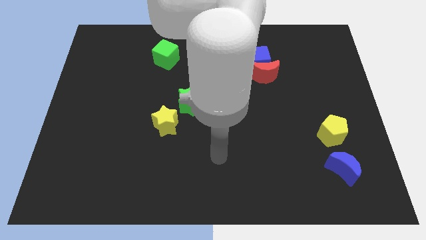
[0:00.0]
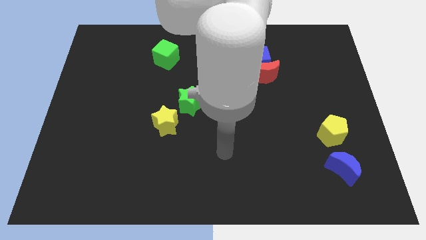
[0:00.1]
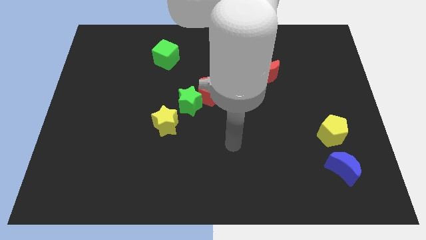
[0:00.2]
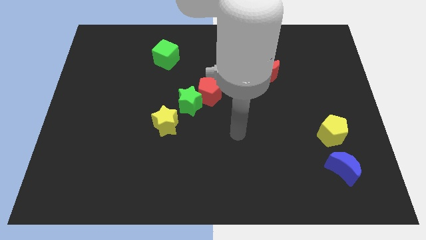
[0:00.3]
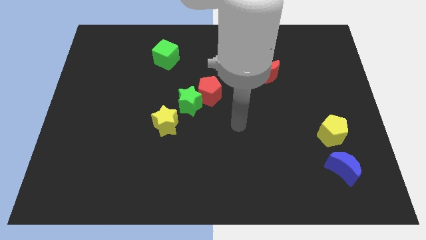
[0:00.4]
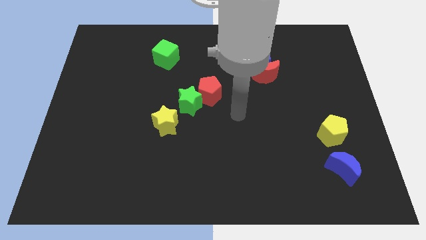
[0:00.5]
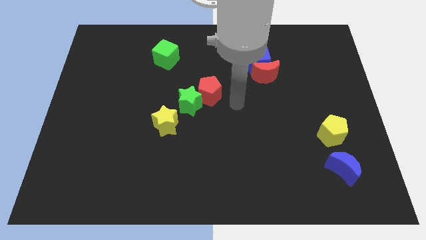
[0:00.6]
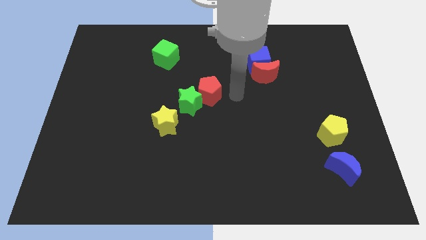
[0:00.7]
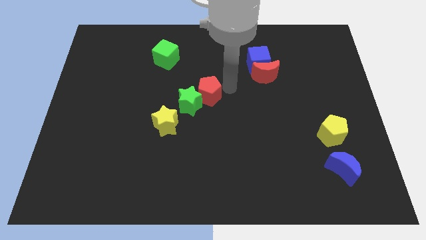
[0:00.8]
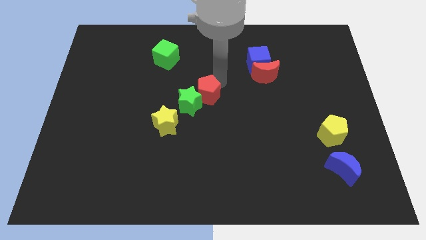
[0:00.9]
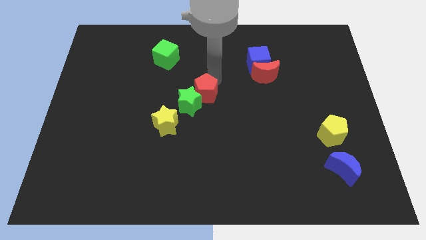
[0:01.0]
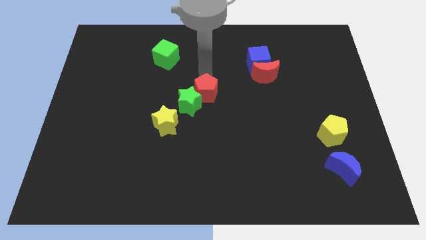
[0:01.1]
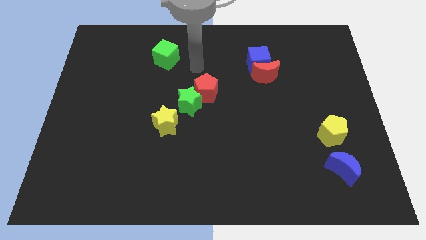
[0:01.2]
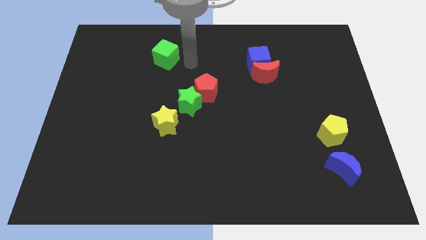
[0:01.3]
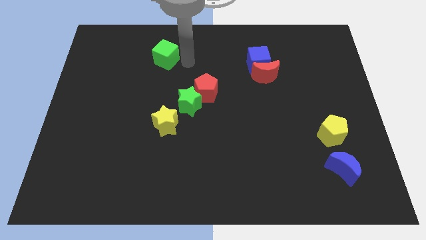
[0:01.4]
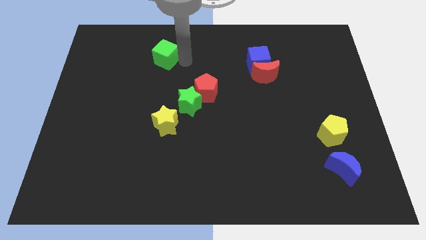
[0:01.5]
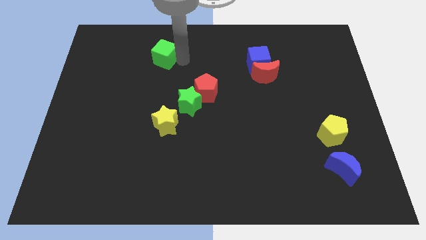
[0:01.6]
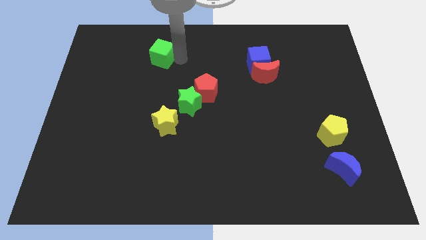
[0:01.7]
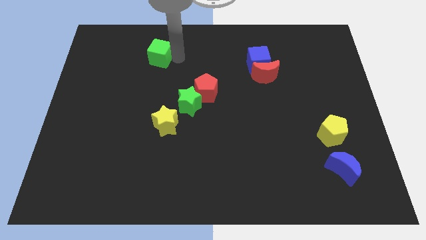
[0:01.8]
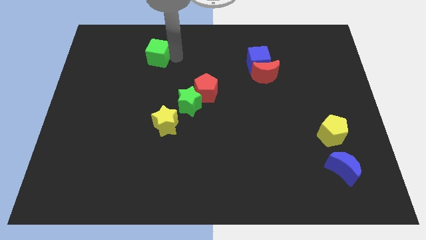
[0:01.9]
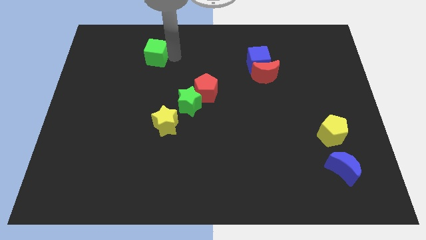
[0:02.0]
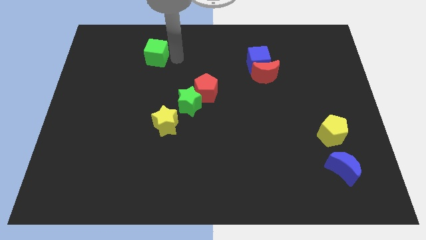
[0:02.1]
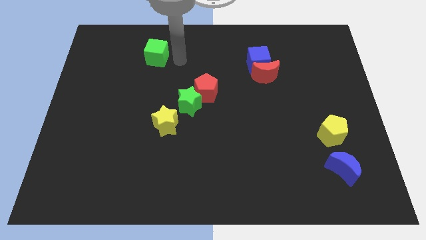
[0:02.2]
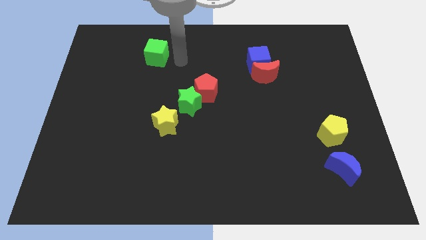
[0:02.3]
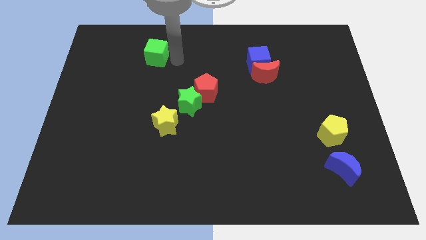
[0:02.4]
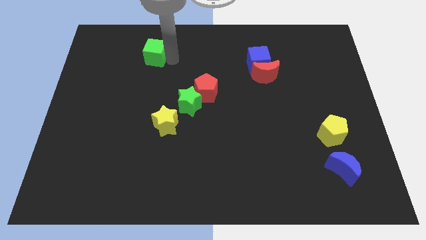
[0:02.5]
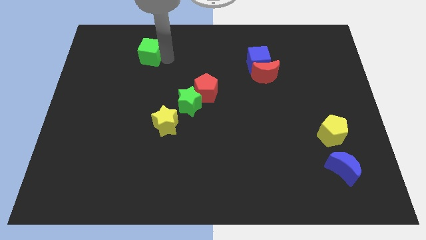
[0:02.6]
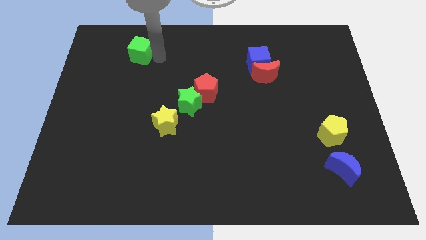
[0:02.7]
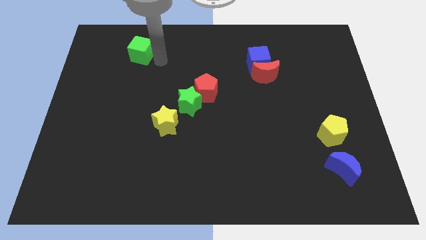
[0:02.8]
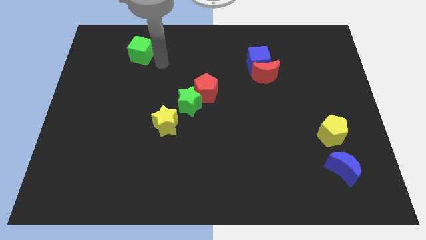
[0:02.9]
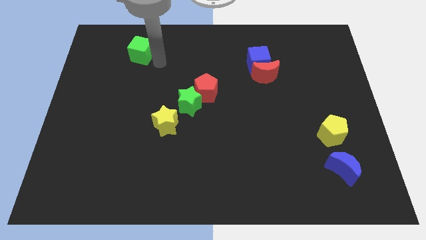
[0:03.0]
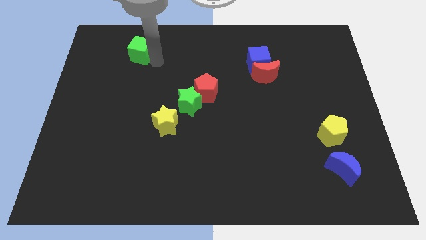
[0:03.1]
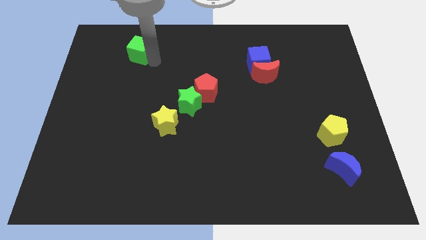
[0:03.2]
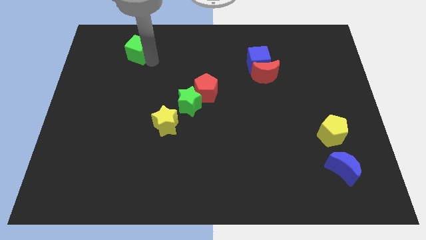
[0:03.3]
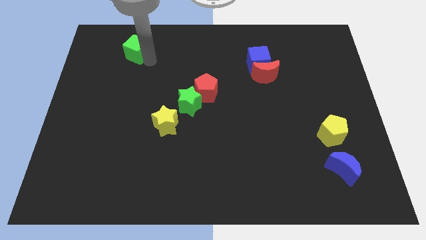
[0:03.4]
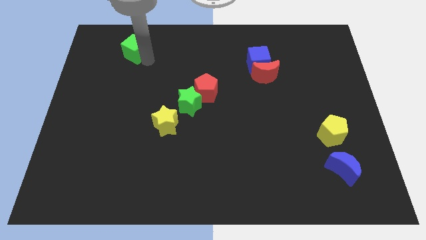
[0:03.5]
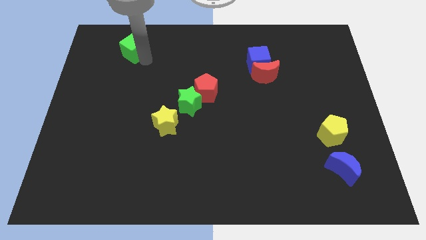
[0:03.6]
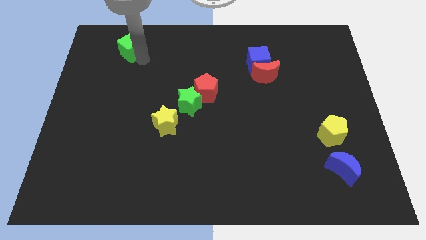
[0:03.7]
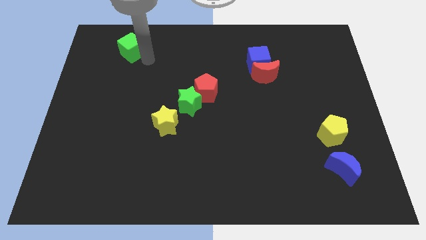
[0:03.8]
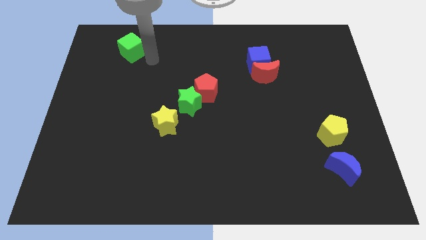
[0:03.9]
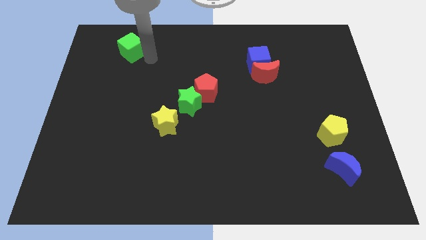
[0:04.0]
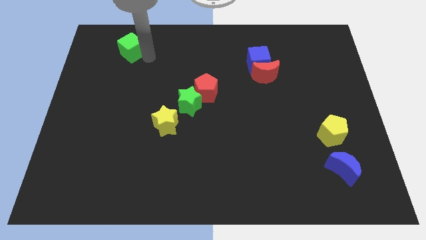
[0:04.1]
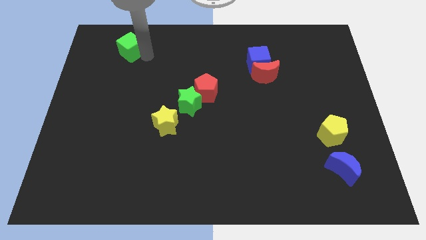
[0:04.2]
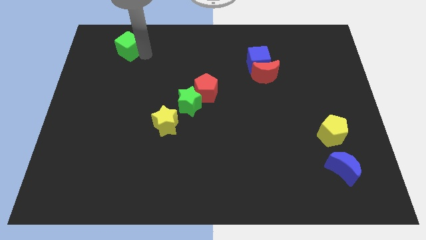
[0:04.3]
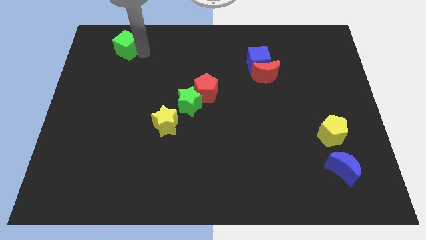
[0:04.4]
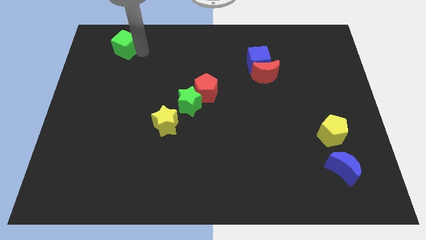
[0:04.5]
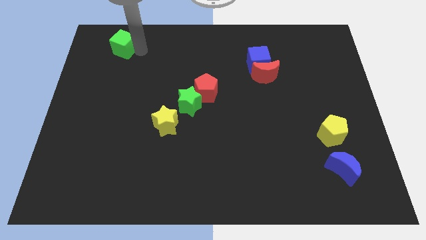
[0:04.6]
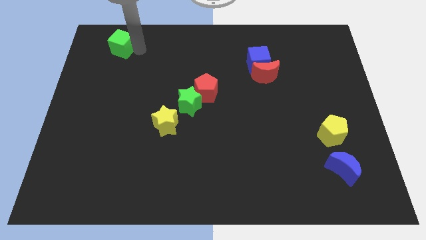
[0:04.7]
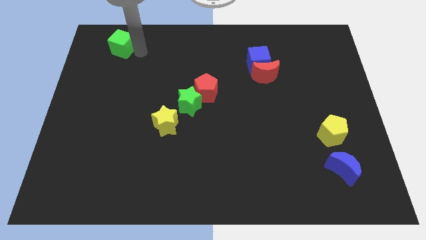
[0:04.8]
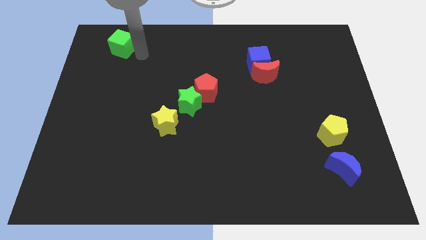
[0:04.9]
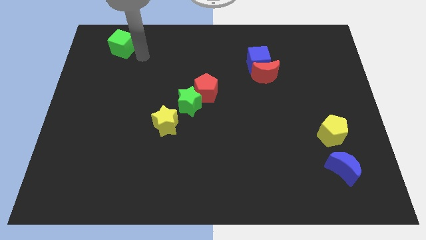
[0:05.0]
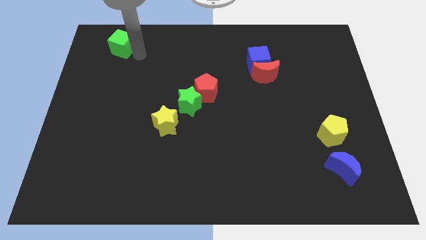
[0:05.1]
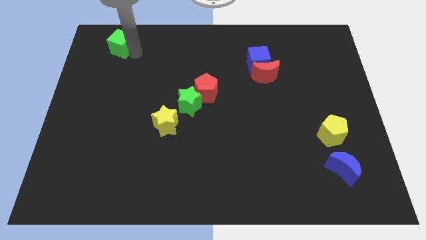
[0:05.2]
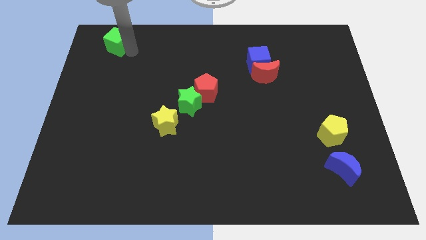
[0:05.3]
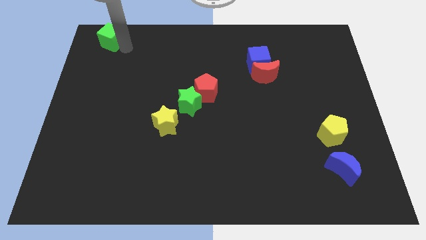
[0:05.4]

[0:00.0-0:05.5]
put the green cube to the top left corner

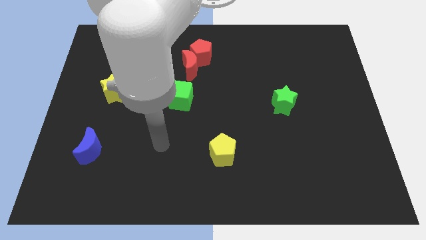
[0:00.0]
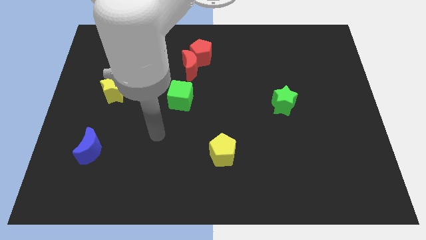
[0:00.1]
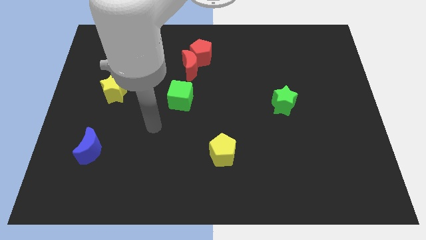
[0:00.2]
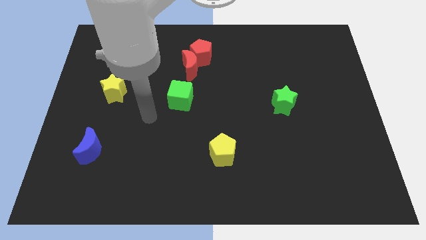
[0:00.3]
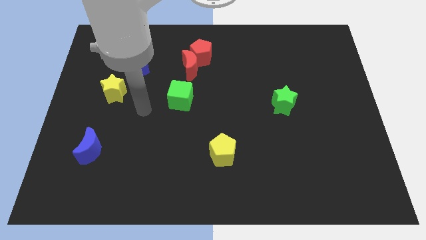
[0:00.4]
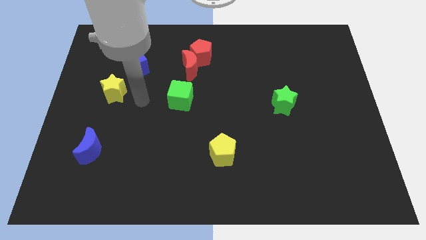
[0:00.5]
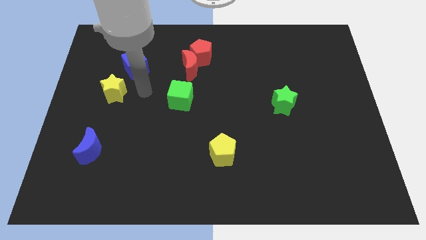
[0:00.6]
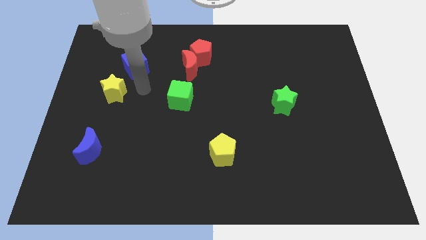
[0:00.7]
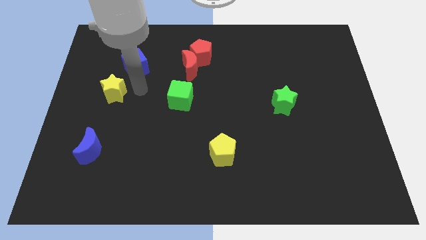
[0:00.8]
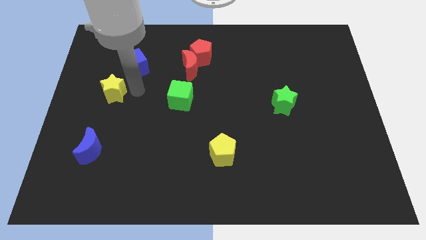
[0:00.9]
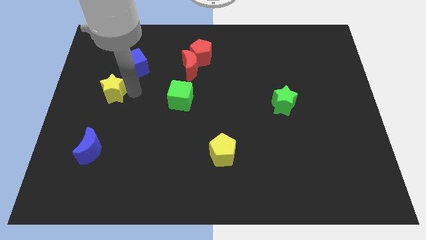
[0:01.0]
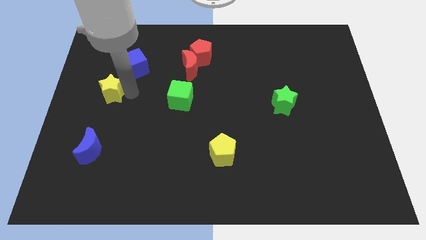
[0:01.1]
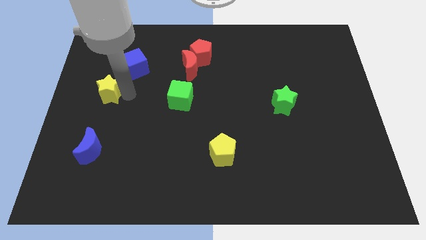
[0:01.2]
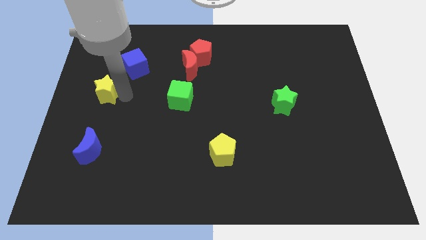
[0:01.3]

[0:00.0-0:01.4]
push the yellow star to the left side
